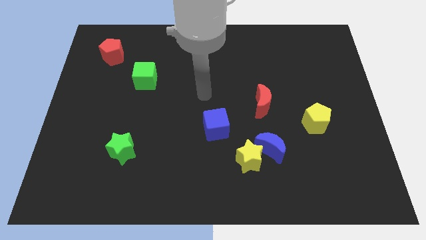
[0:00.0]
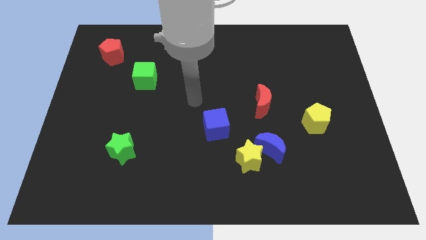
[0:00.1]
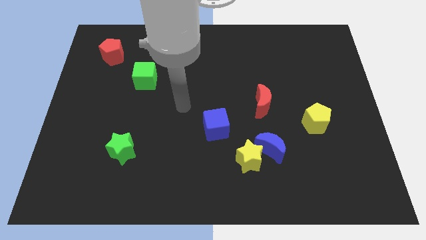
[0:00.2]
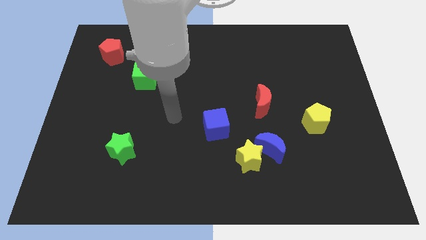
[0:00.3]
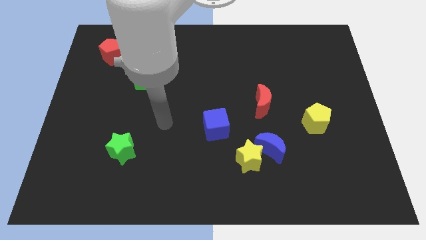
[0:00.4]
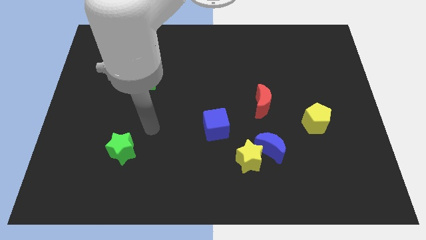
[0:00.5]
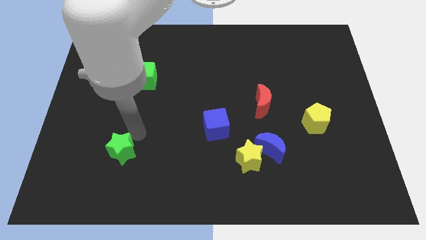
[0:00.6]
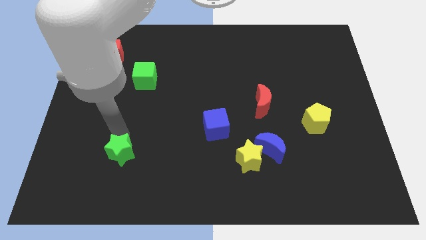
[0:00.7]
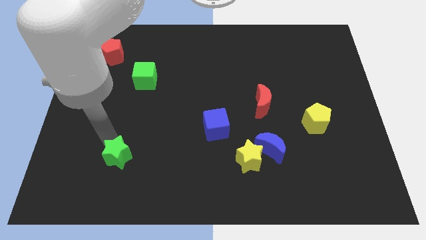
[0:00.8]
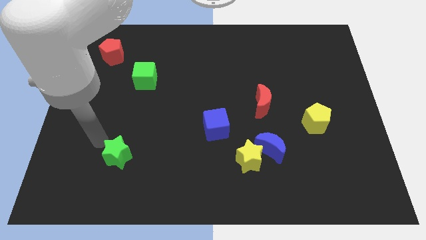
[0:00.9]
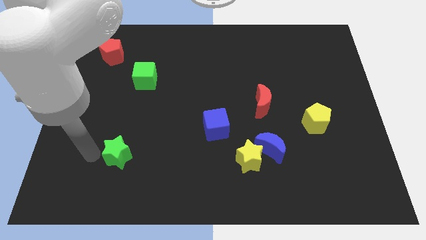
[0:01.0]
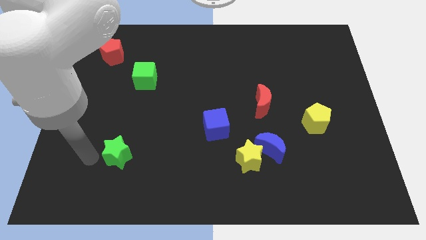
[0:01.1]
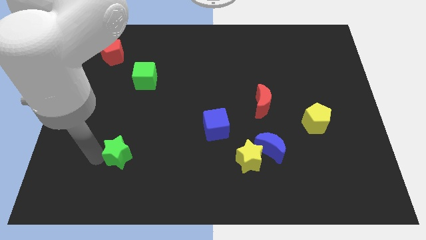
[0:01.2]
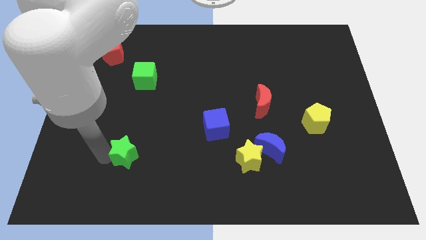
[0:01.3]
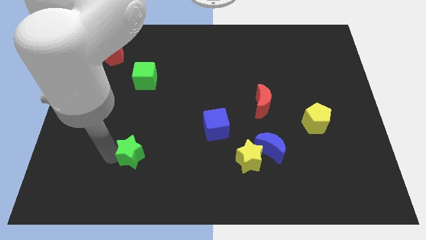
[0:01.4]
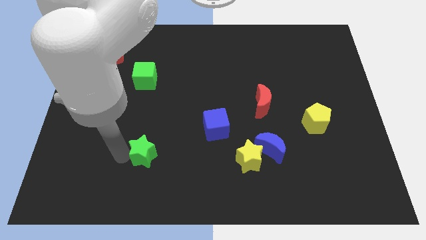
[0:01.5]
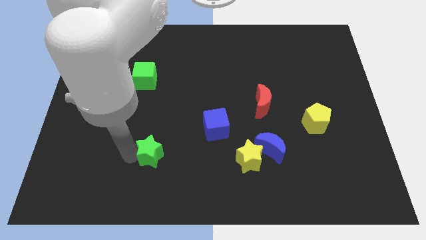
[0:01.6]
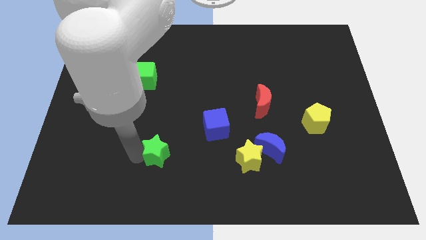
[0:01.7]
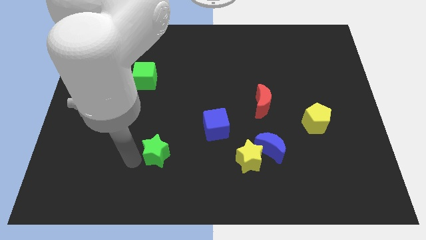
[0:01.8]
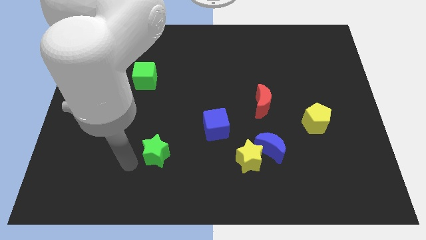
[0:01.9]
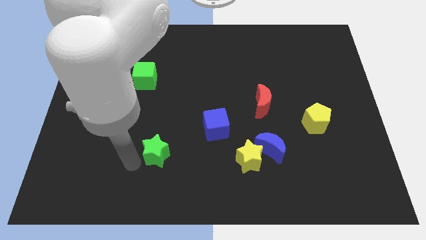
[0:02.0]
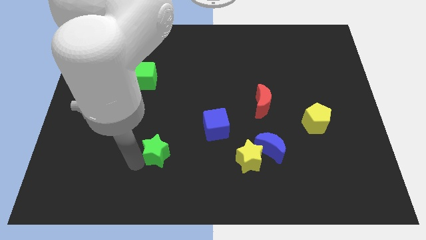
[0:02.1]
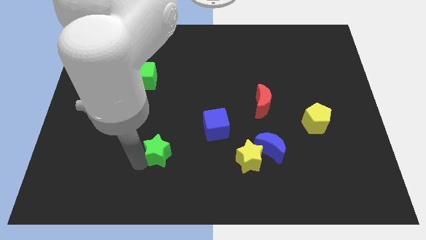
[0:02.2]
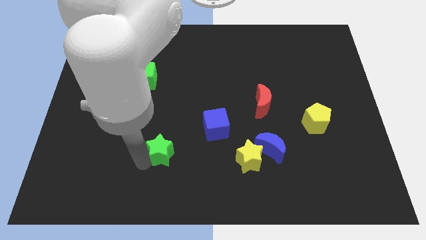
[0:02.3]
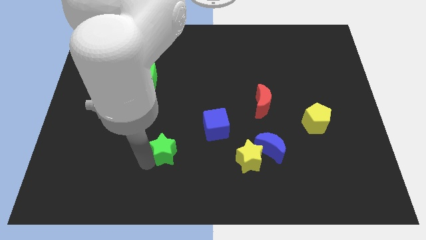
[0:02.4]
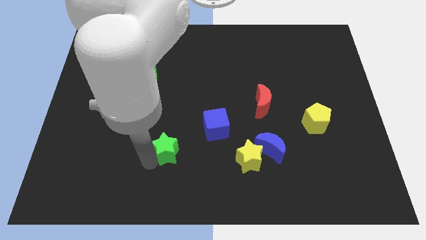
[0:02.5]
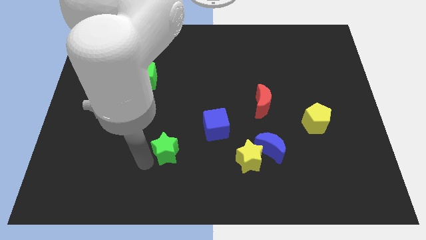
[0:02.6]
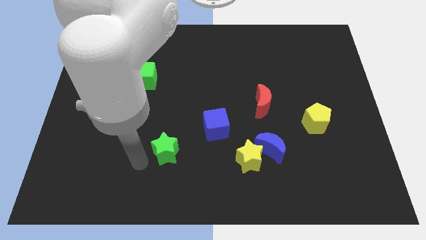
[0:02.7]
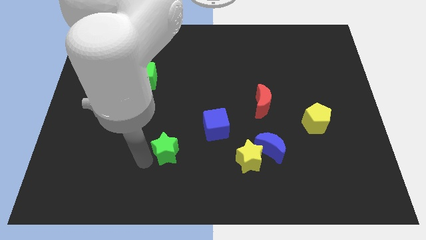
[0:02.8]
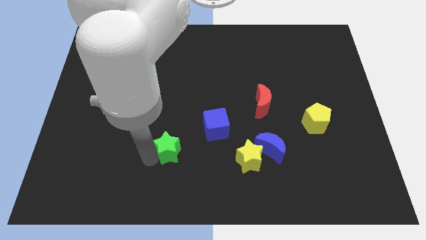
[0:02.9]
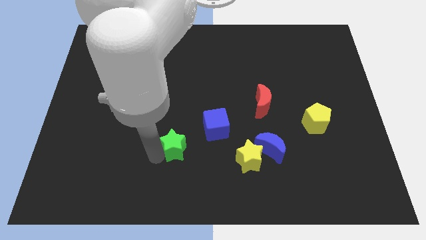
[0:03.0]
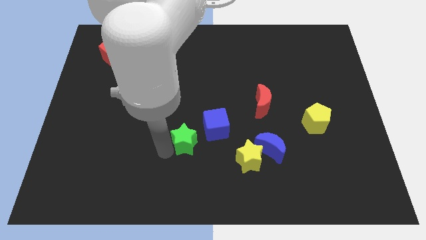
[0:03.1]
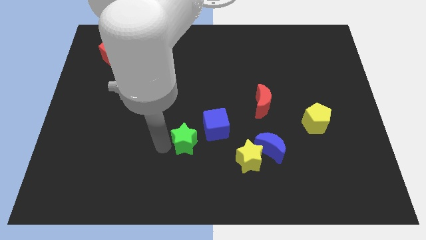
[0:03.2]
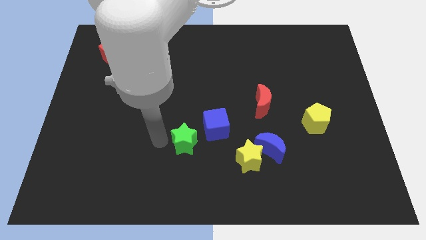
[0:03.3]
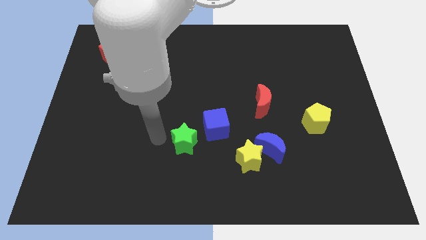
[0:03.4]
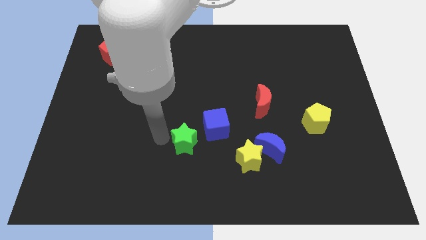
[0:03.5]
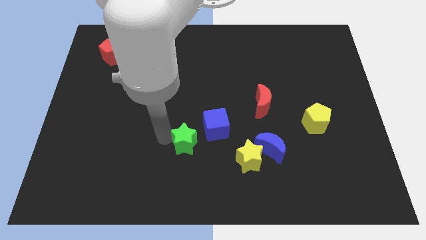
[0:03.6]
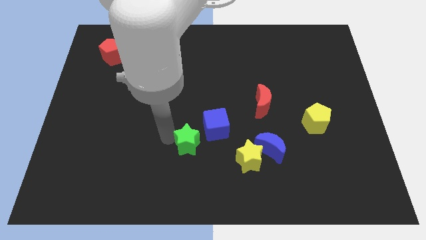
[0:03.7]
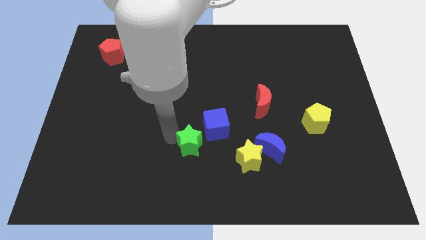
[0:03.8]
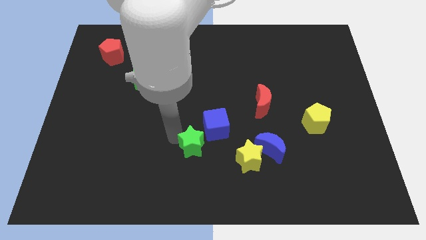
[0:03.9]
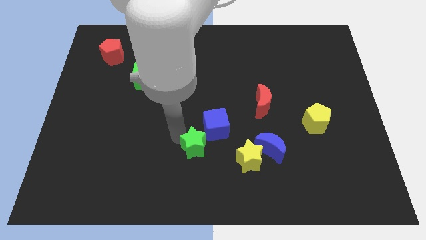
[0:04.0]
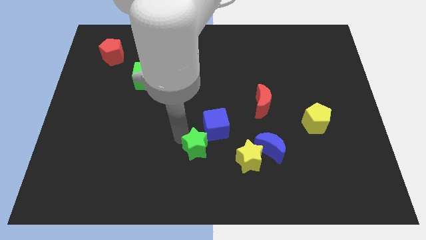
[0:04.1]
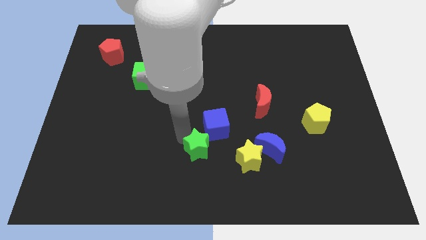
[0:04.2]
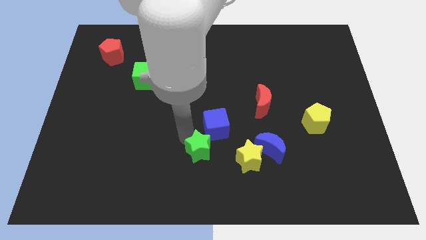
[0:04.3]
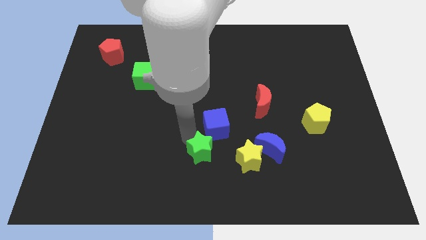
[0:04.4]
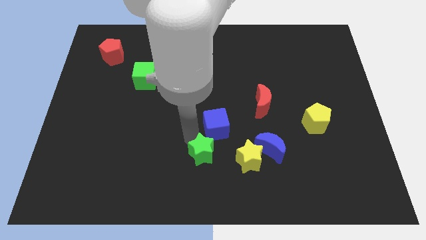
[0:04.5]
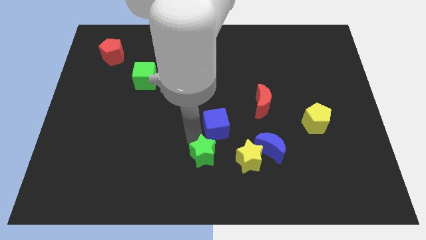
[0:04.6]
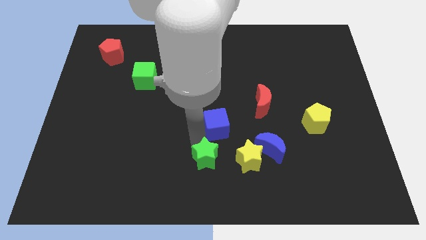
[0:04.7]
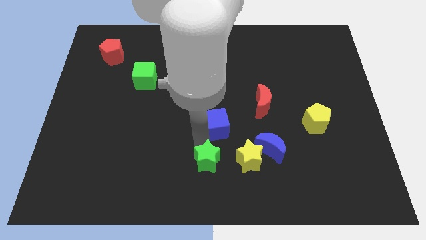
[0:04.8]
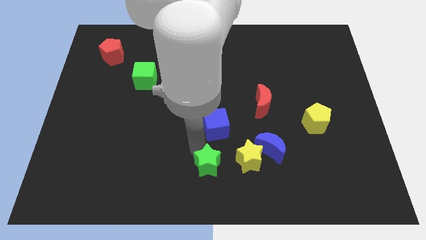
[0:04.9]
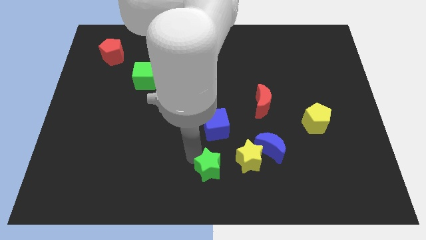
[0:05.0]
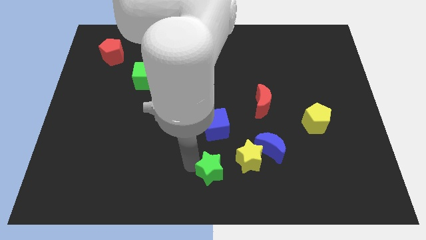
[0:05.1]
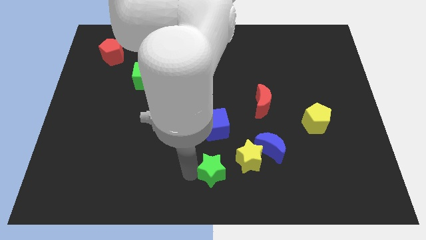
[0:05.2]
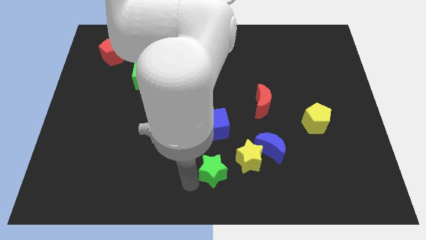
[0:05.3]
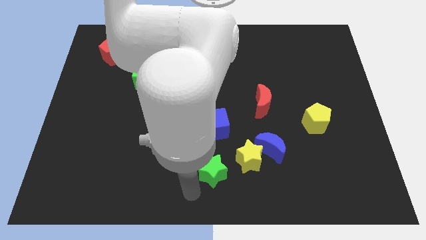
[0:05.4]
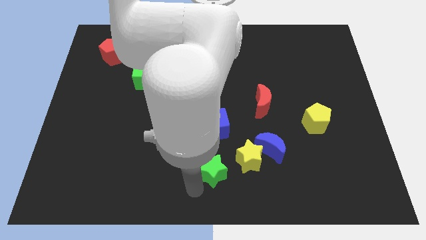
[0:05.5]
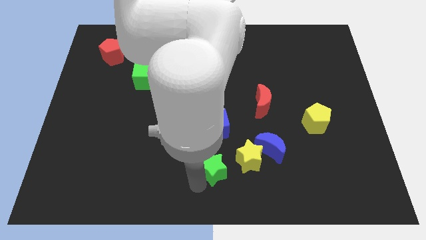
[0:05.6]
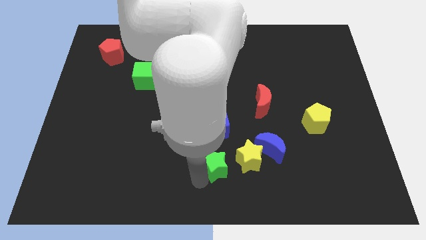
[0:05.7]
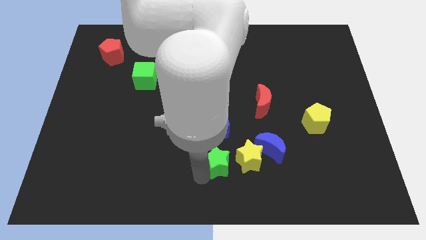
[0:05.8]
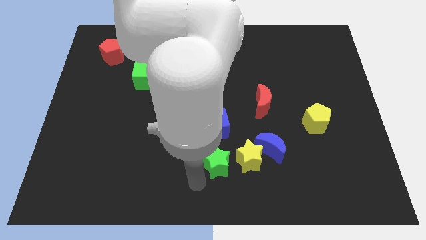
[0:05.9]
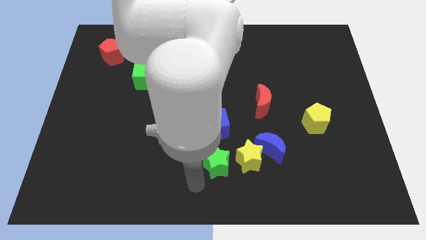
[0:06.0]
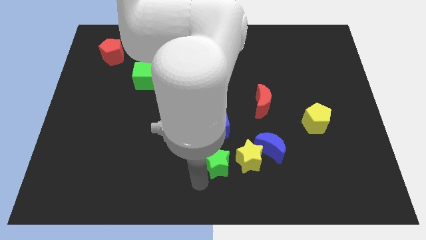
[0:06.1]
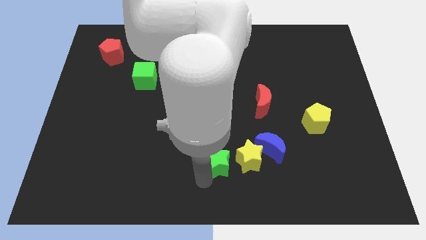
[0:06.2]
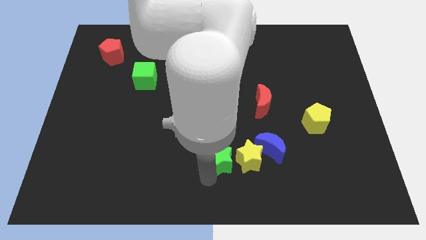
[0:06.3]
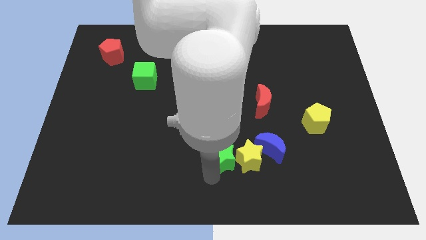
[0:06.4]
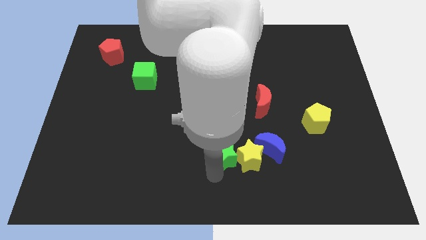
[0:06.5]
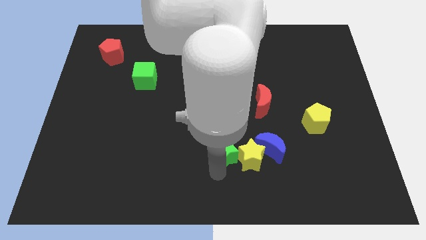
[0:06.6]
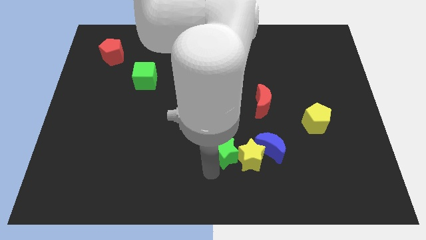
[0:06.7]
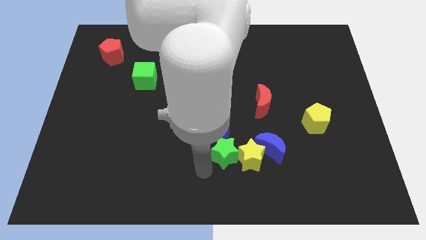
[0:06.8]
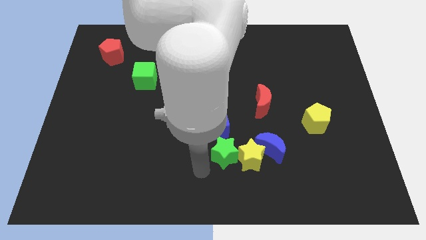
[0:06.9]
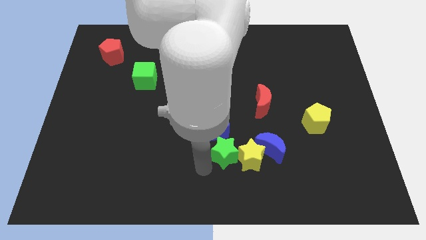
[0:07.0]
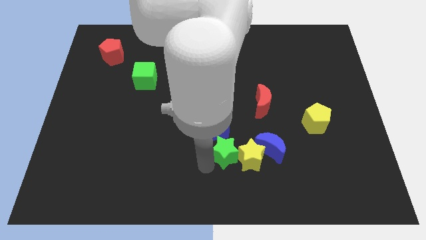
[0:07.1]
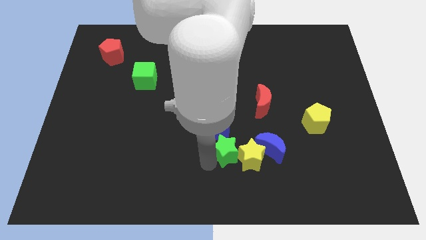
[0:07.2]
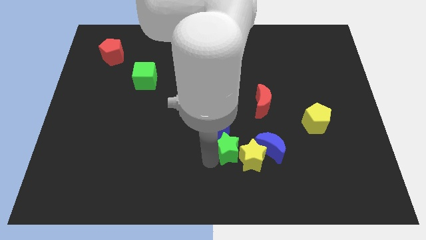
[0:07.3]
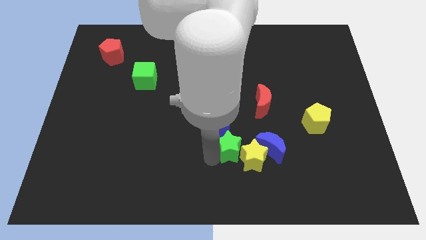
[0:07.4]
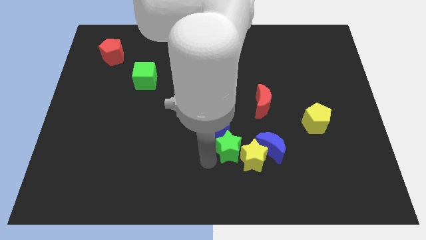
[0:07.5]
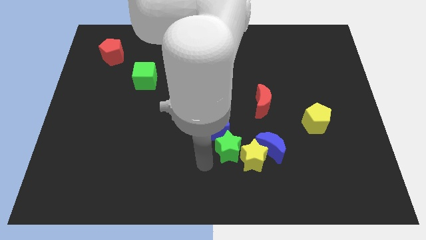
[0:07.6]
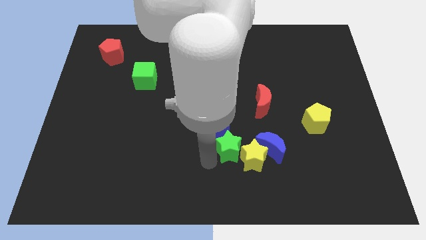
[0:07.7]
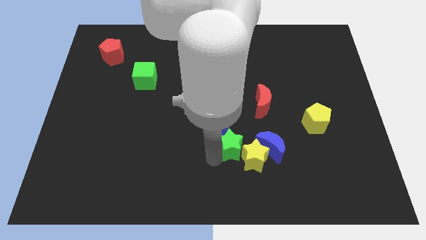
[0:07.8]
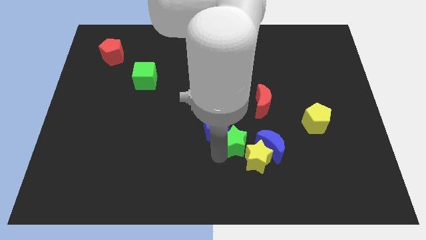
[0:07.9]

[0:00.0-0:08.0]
slide the green star right of the blue cube

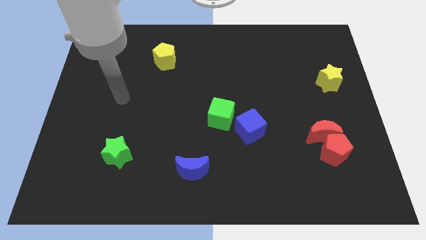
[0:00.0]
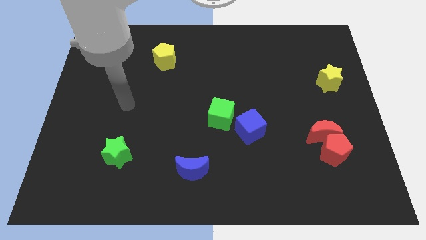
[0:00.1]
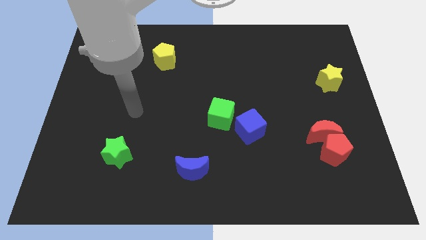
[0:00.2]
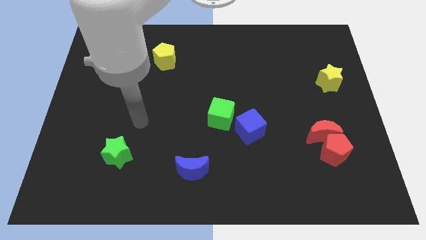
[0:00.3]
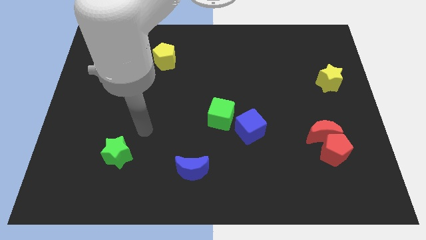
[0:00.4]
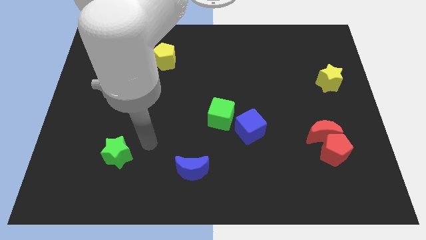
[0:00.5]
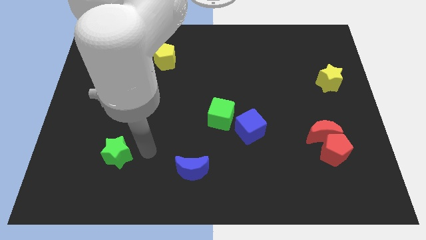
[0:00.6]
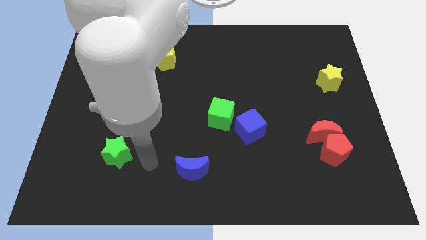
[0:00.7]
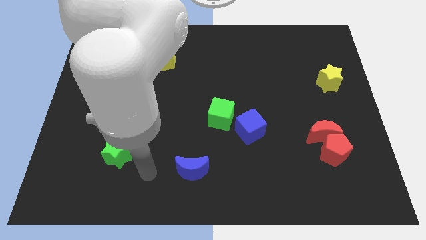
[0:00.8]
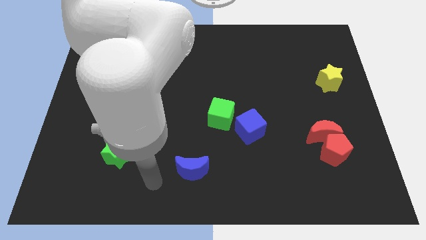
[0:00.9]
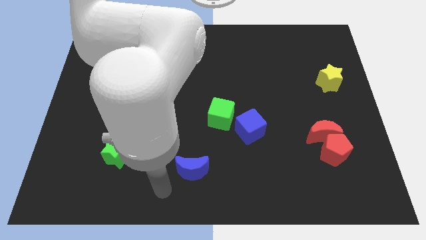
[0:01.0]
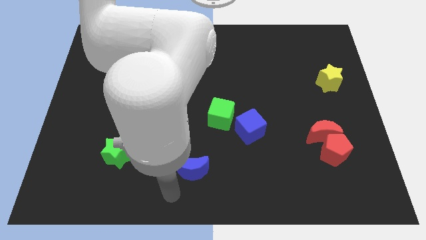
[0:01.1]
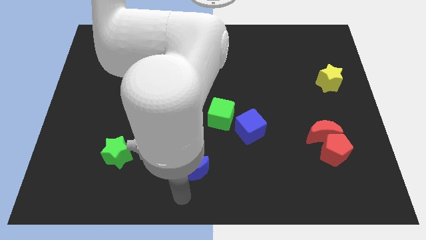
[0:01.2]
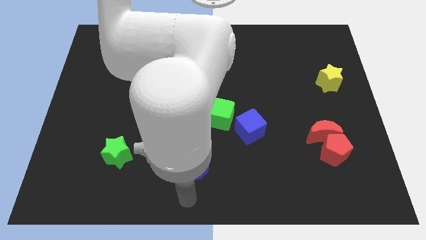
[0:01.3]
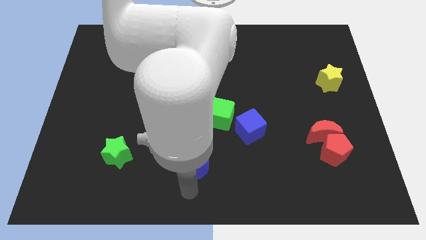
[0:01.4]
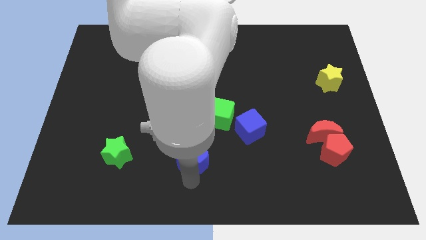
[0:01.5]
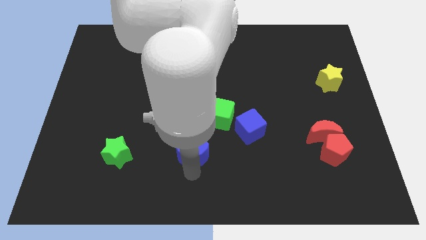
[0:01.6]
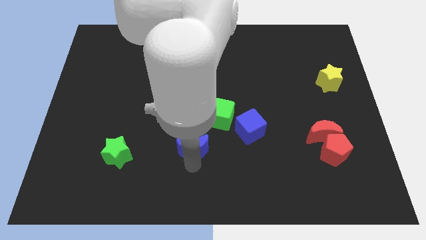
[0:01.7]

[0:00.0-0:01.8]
put the blue moon to the bottom left side of the green cube
